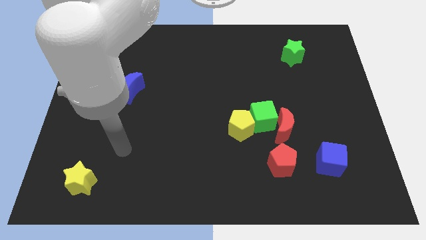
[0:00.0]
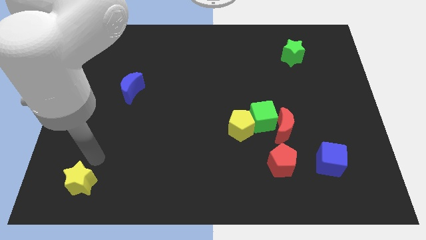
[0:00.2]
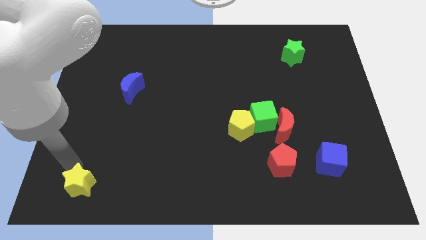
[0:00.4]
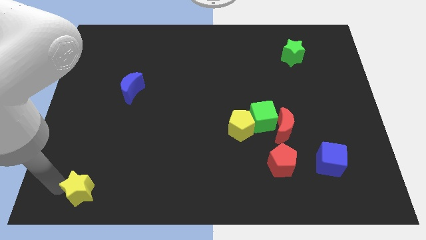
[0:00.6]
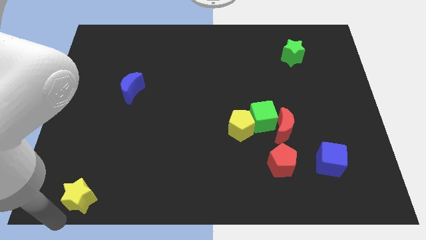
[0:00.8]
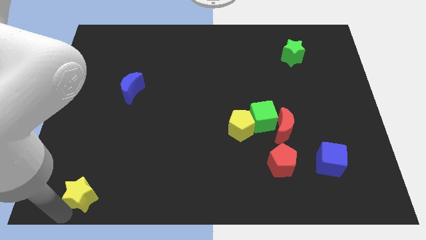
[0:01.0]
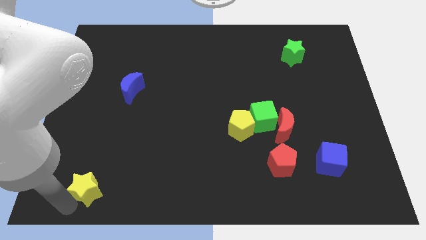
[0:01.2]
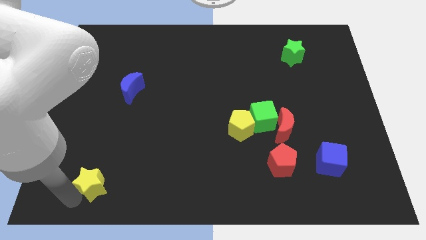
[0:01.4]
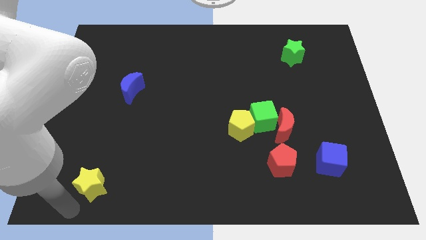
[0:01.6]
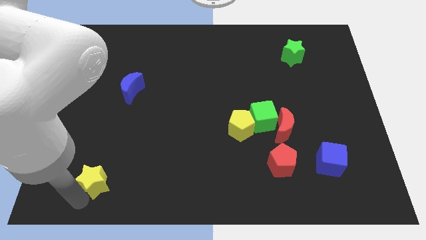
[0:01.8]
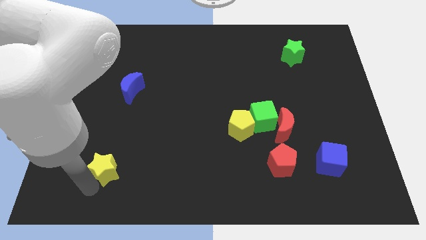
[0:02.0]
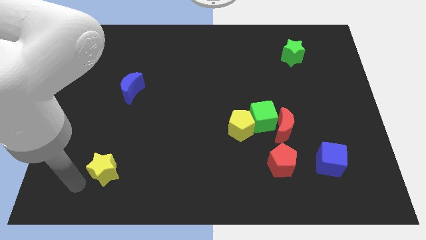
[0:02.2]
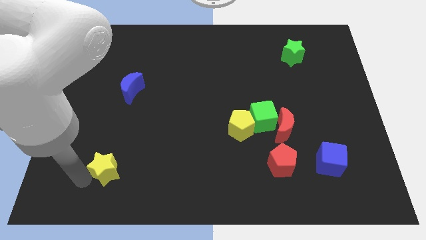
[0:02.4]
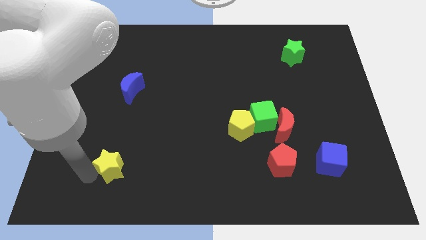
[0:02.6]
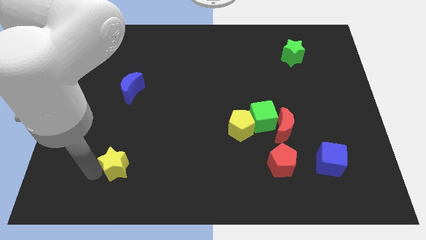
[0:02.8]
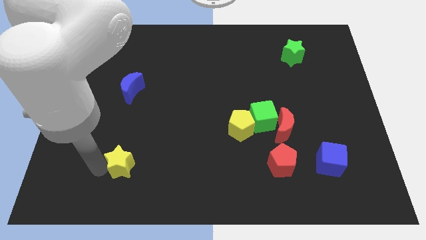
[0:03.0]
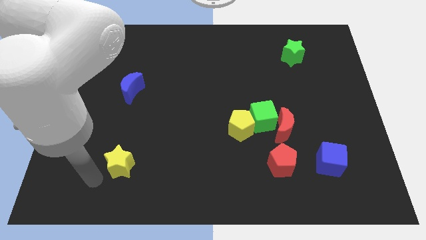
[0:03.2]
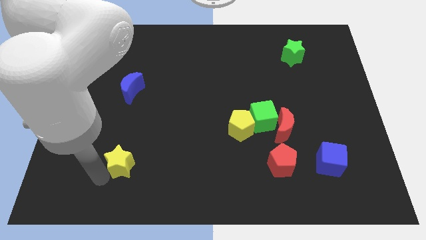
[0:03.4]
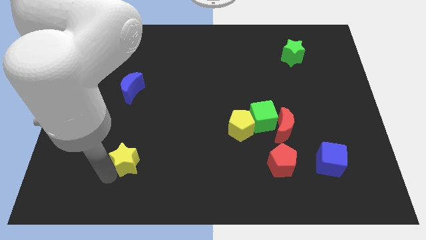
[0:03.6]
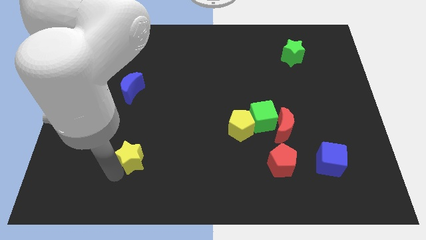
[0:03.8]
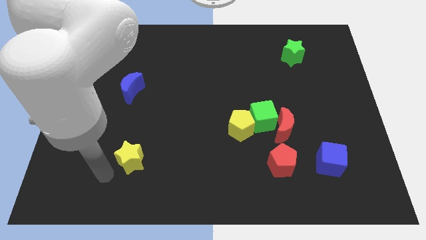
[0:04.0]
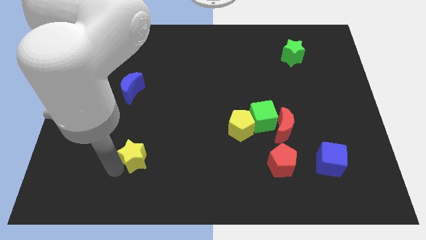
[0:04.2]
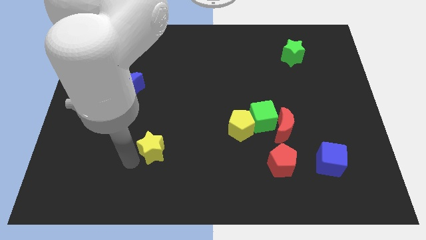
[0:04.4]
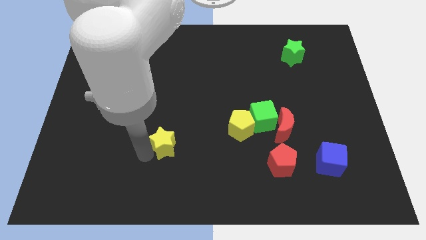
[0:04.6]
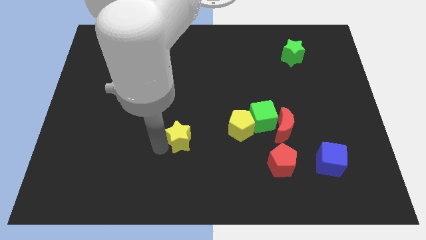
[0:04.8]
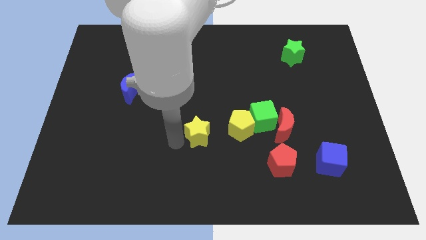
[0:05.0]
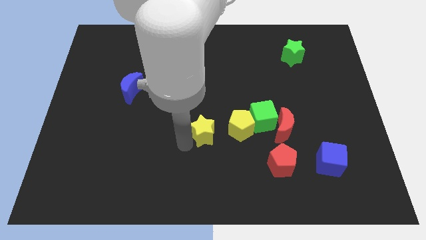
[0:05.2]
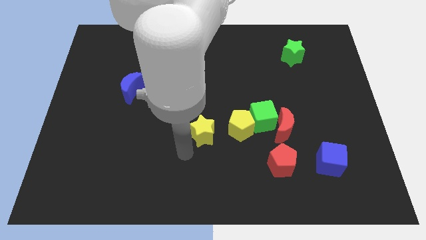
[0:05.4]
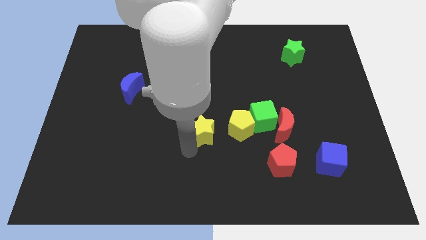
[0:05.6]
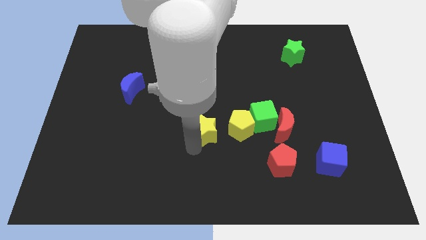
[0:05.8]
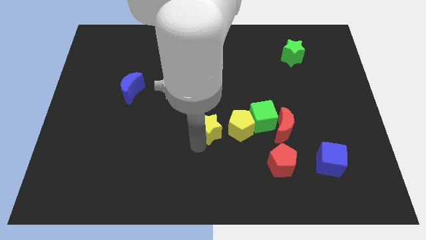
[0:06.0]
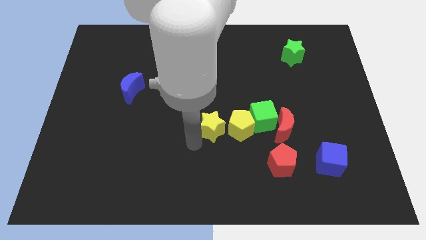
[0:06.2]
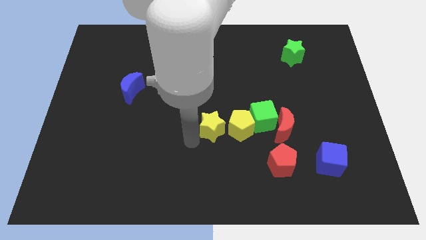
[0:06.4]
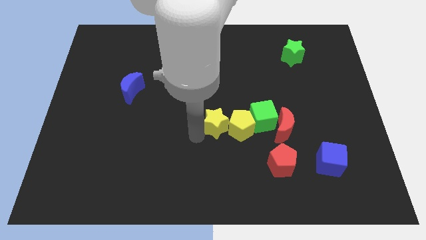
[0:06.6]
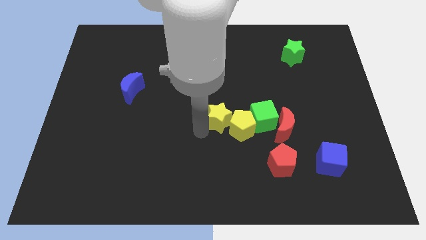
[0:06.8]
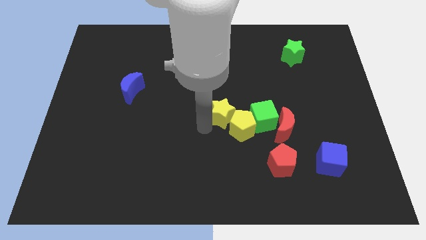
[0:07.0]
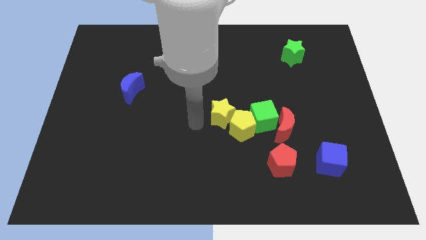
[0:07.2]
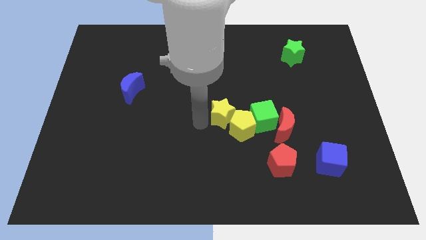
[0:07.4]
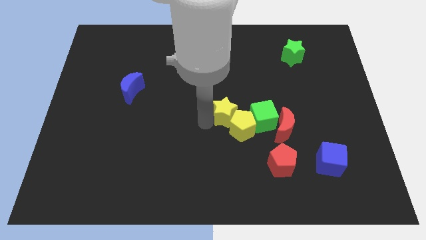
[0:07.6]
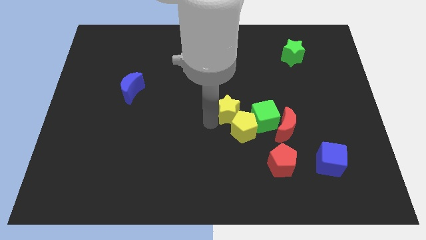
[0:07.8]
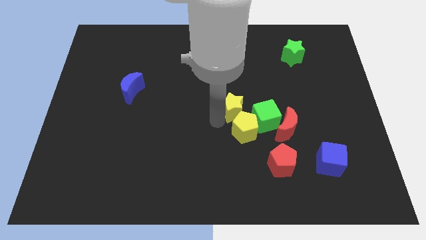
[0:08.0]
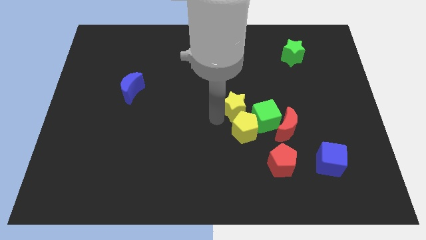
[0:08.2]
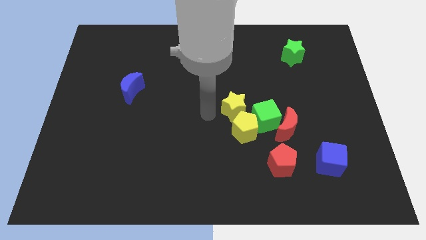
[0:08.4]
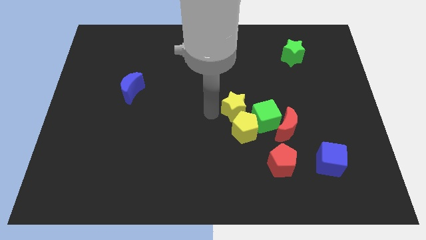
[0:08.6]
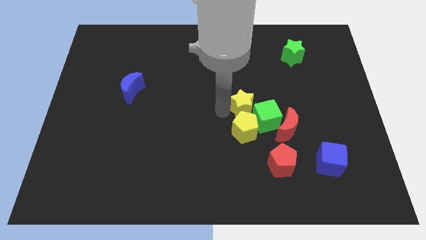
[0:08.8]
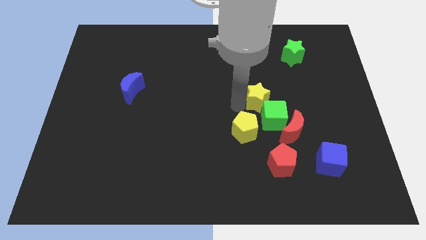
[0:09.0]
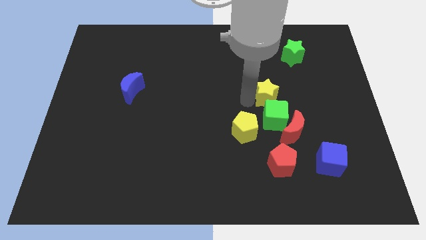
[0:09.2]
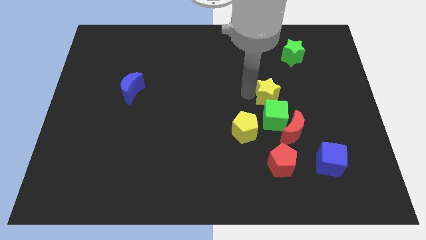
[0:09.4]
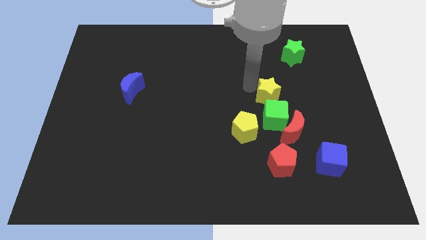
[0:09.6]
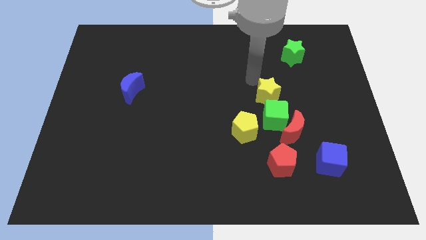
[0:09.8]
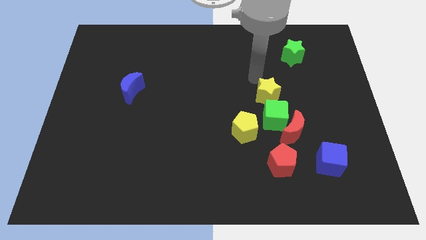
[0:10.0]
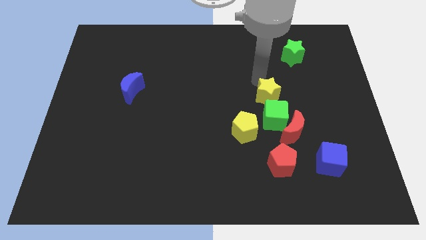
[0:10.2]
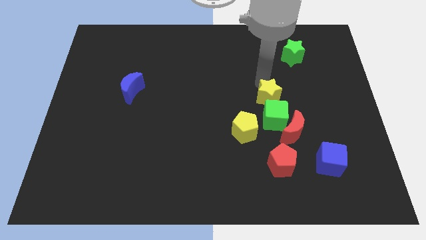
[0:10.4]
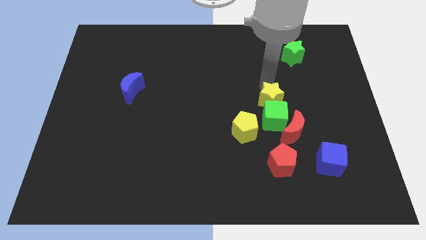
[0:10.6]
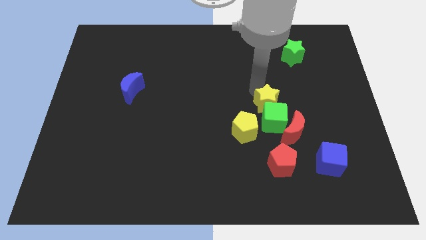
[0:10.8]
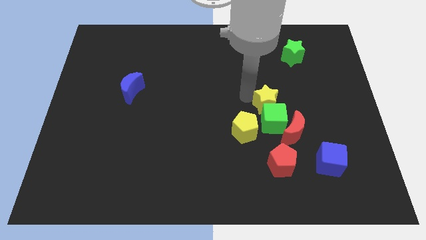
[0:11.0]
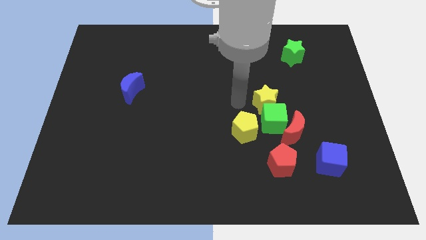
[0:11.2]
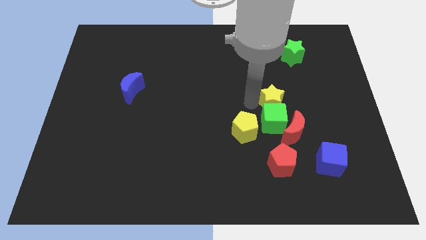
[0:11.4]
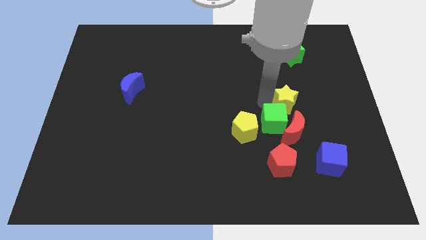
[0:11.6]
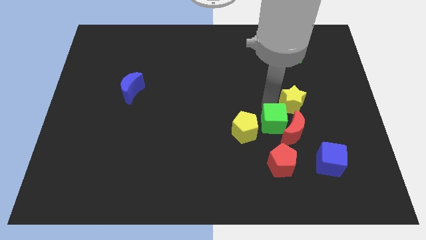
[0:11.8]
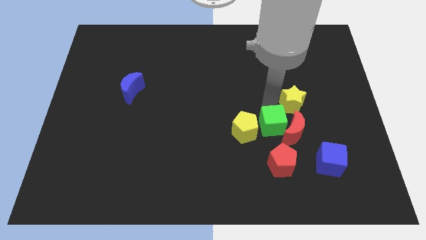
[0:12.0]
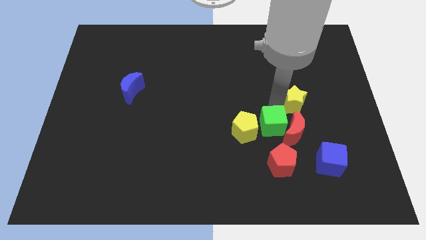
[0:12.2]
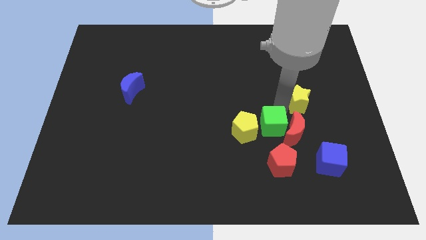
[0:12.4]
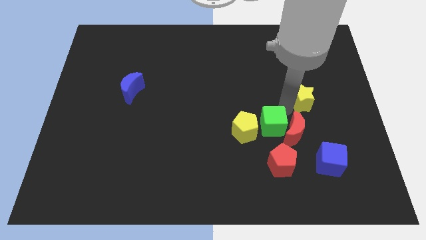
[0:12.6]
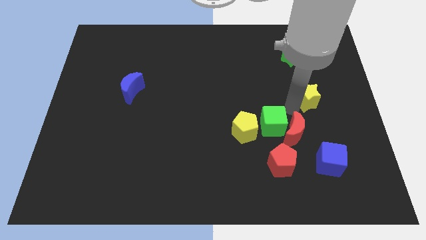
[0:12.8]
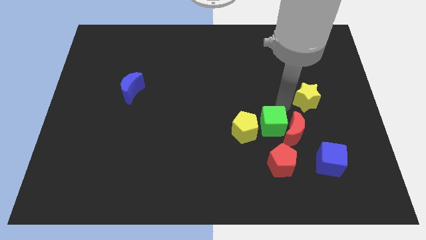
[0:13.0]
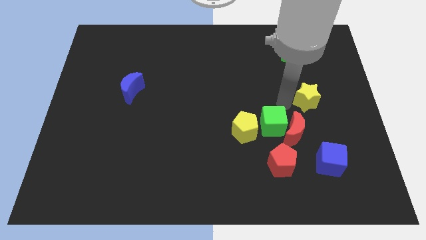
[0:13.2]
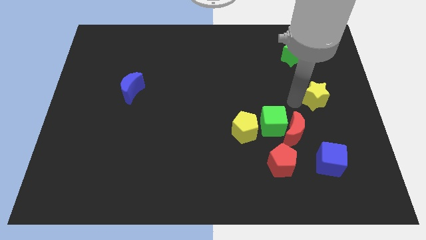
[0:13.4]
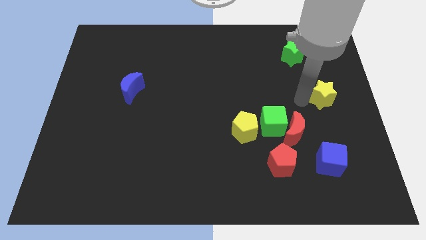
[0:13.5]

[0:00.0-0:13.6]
push the yellow star to the right side
